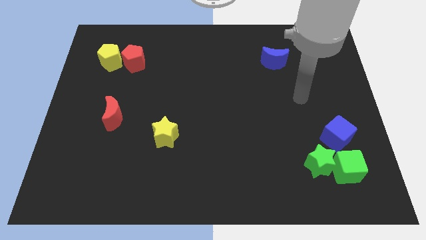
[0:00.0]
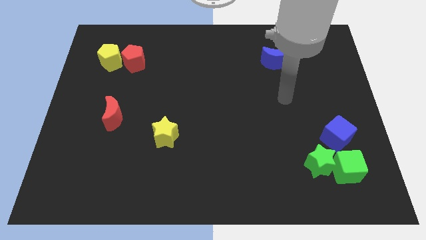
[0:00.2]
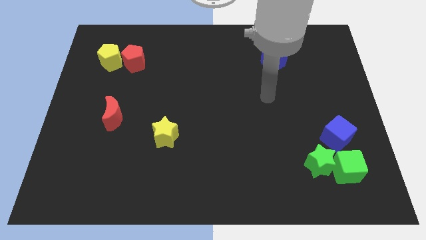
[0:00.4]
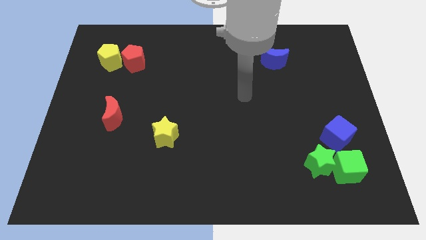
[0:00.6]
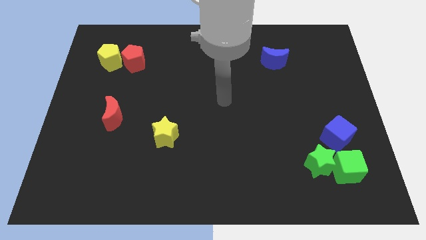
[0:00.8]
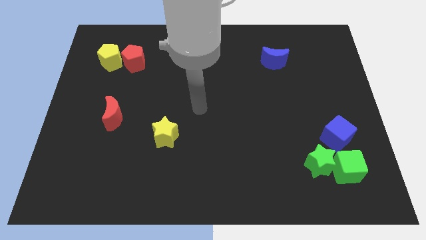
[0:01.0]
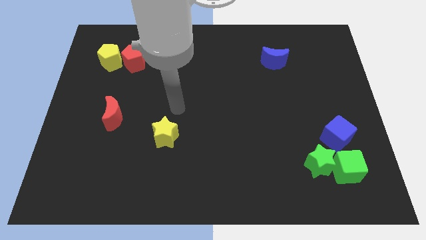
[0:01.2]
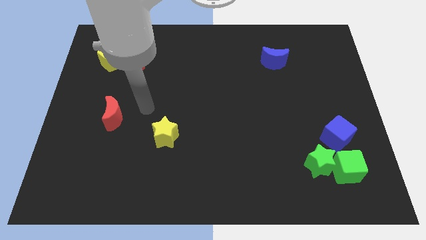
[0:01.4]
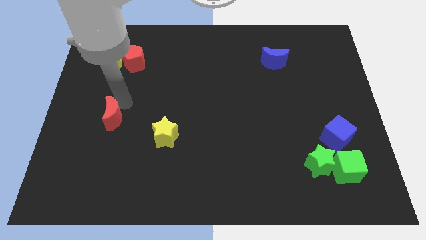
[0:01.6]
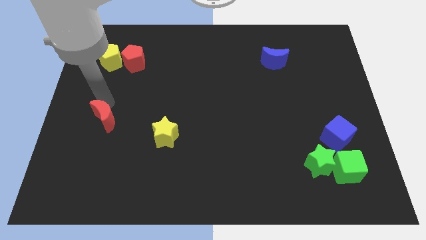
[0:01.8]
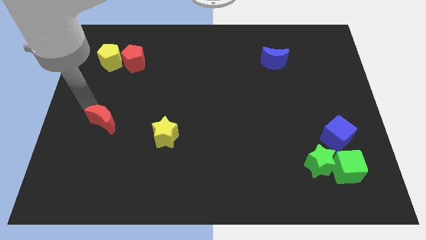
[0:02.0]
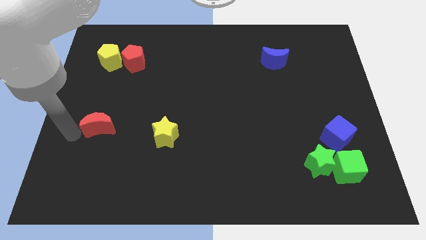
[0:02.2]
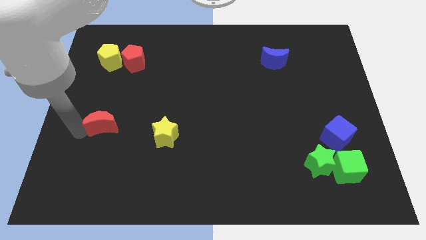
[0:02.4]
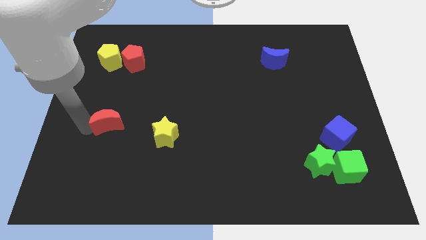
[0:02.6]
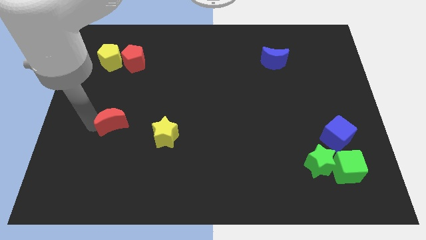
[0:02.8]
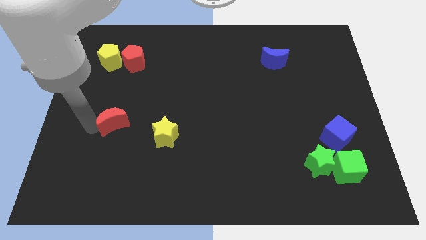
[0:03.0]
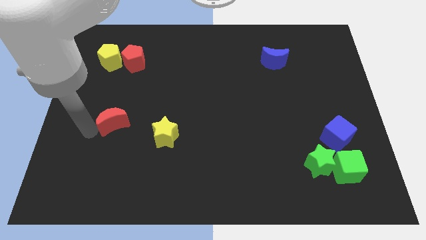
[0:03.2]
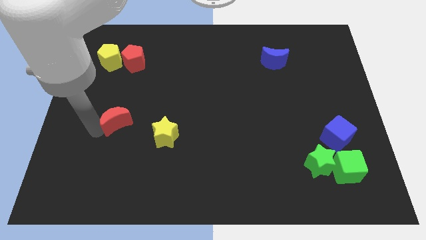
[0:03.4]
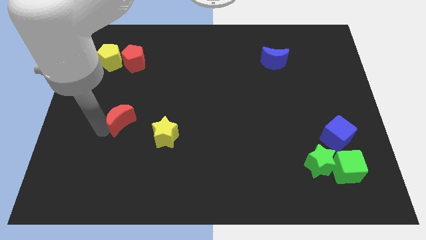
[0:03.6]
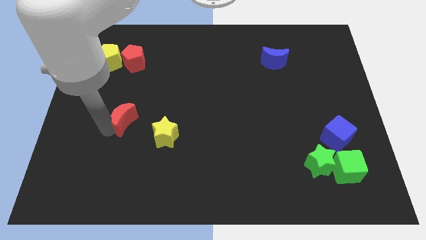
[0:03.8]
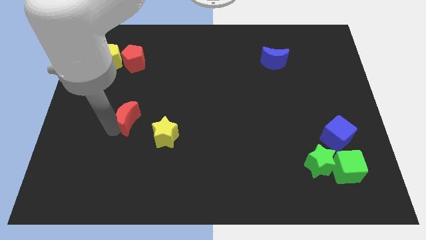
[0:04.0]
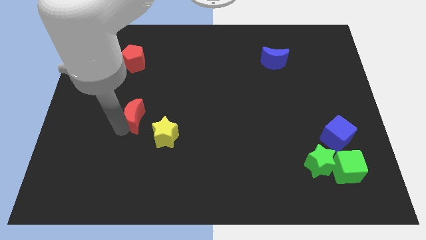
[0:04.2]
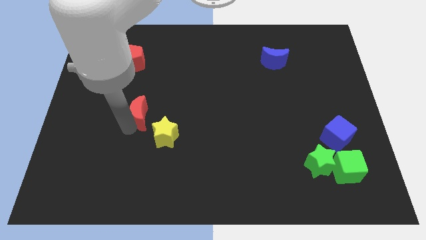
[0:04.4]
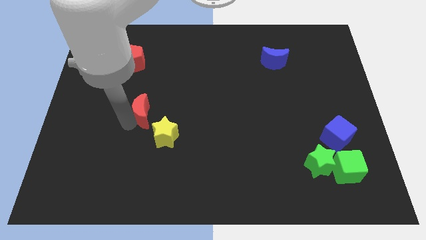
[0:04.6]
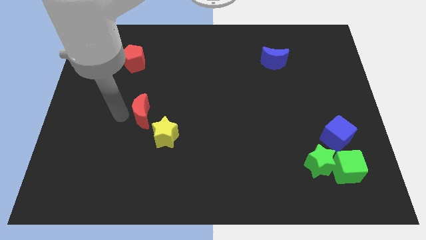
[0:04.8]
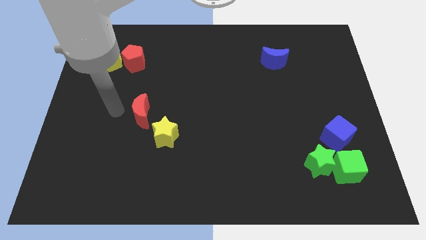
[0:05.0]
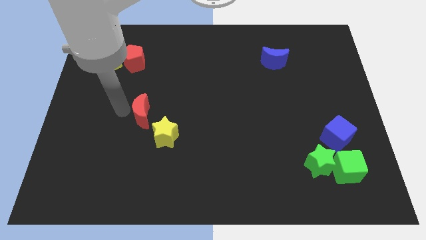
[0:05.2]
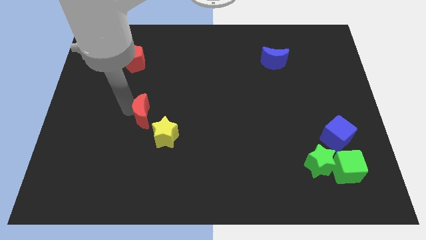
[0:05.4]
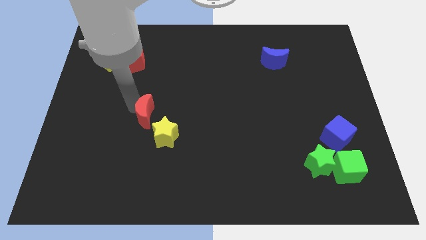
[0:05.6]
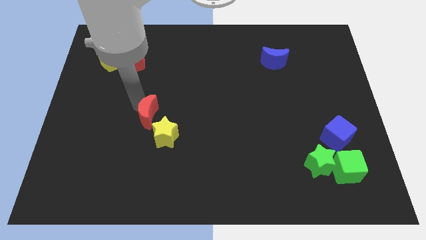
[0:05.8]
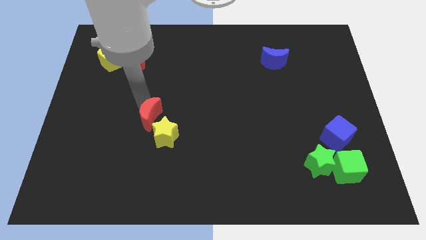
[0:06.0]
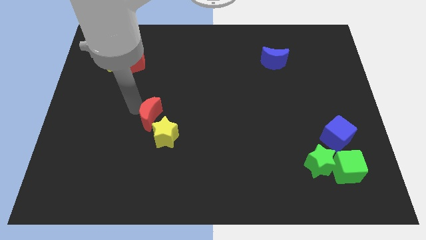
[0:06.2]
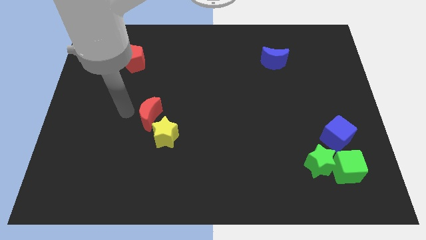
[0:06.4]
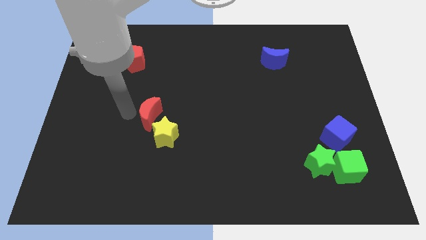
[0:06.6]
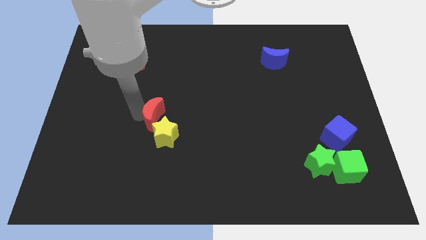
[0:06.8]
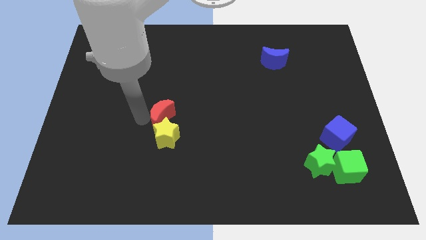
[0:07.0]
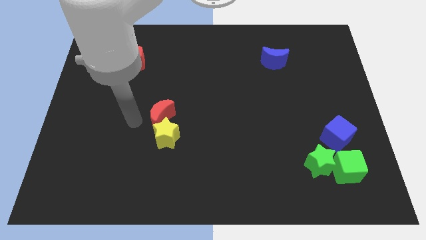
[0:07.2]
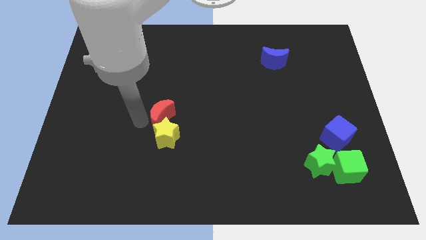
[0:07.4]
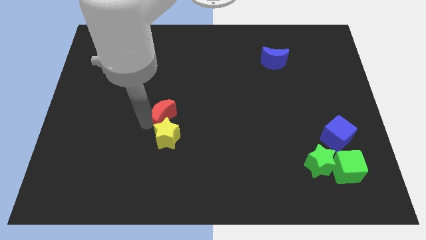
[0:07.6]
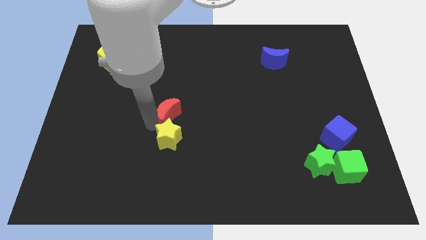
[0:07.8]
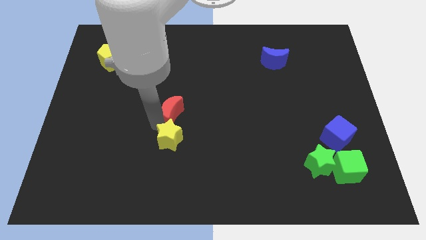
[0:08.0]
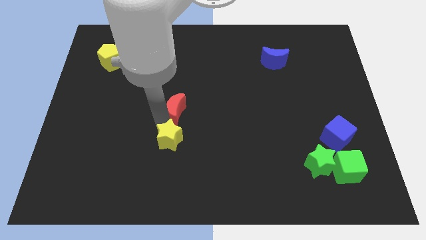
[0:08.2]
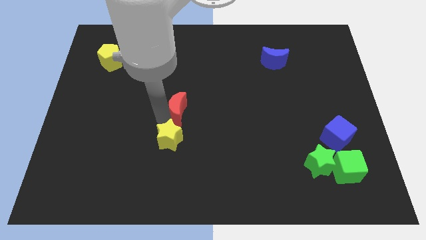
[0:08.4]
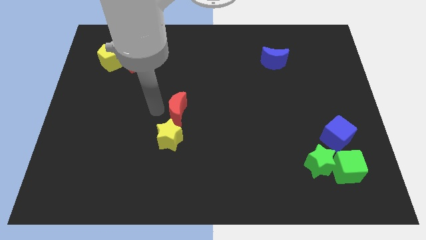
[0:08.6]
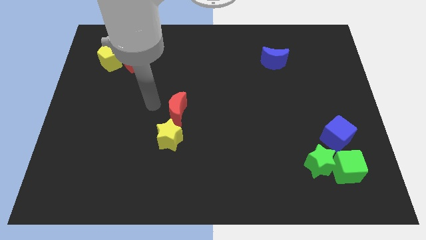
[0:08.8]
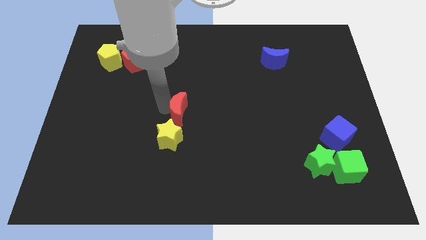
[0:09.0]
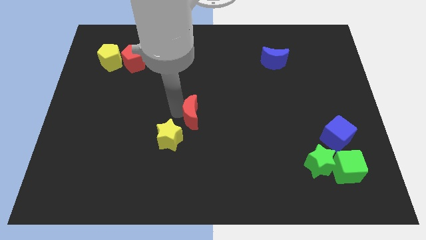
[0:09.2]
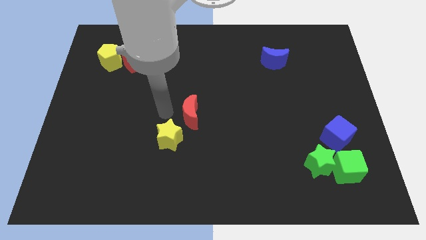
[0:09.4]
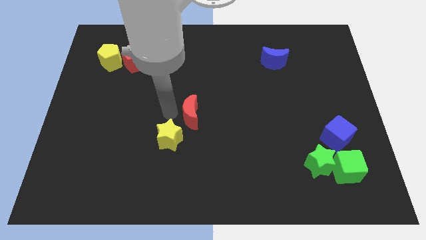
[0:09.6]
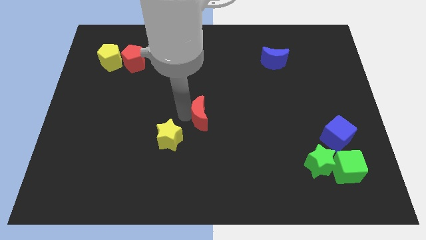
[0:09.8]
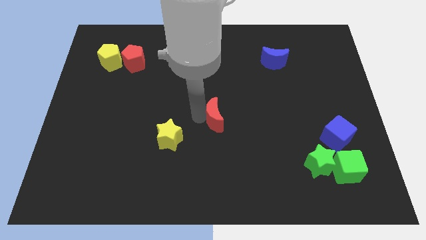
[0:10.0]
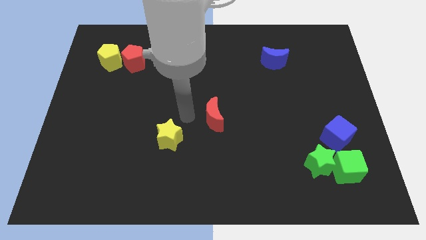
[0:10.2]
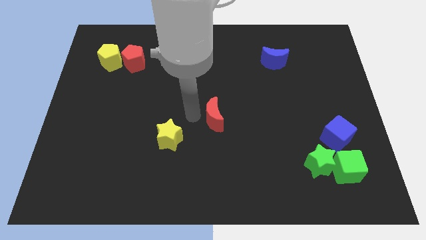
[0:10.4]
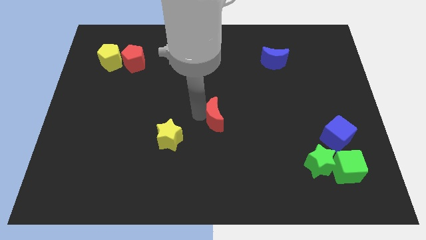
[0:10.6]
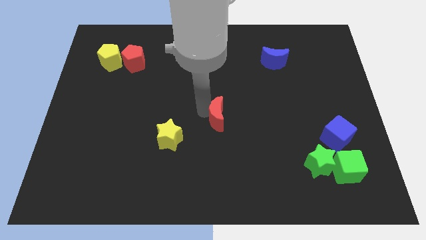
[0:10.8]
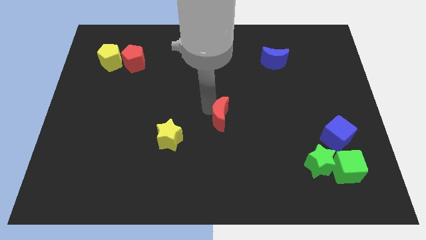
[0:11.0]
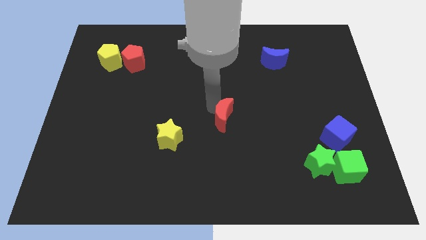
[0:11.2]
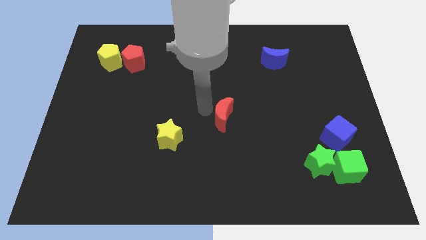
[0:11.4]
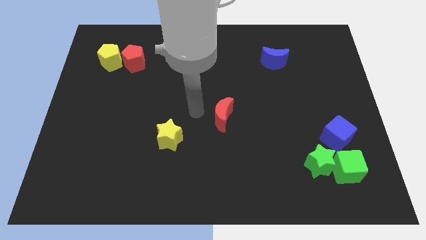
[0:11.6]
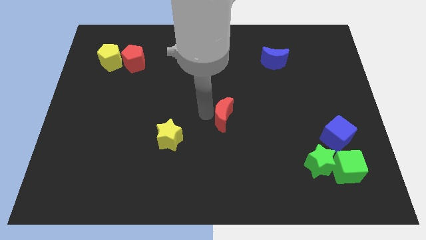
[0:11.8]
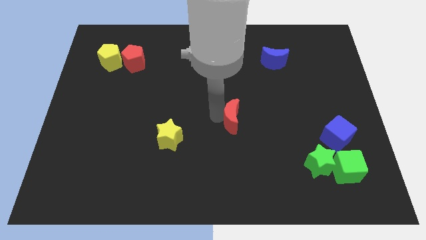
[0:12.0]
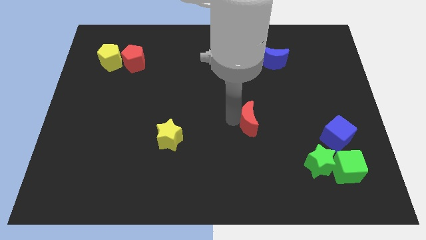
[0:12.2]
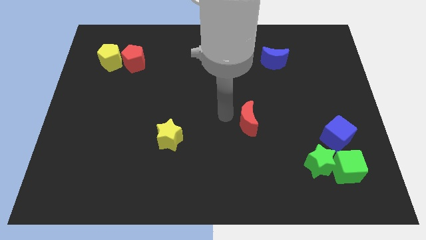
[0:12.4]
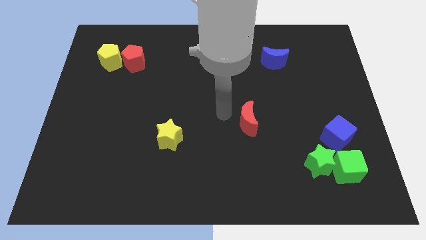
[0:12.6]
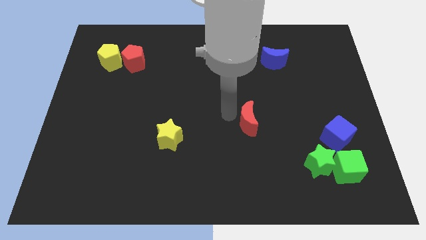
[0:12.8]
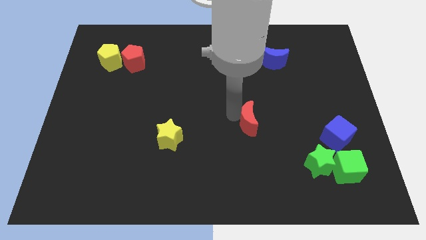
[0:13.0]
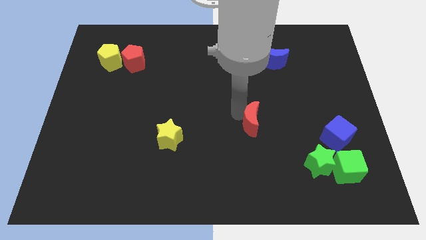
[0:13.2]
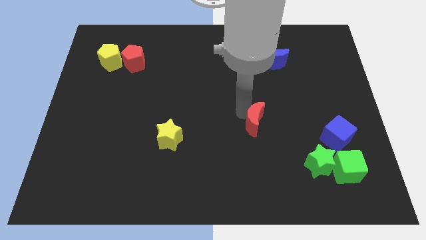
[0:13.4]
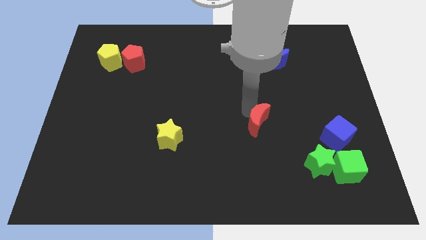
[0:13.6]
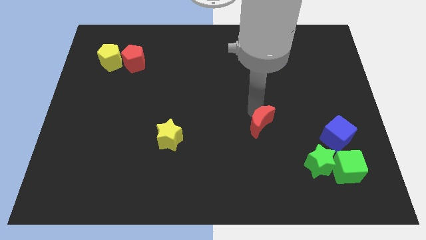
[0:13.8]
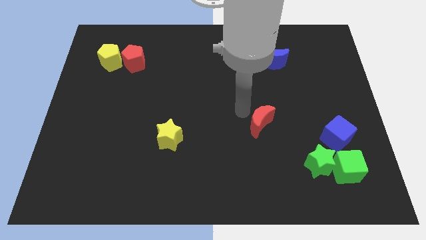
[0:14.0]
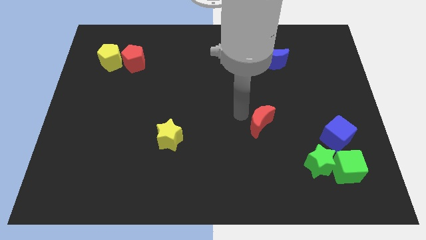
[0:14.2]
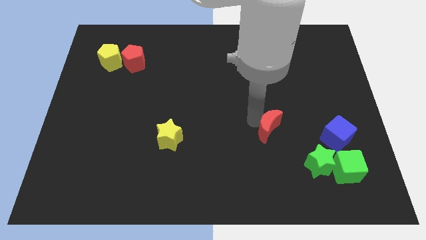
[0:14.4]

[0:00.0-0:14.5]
push the red moon to the left side of the blue cube
